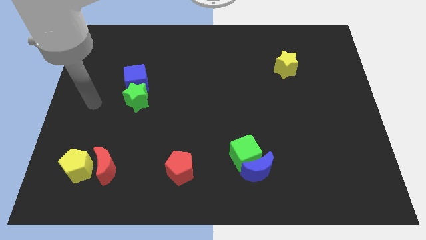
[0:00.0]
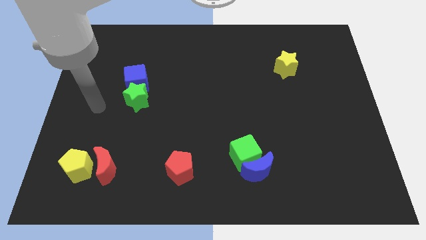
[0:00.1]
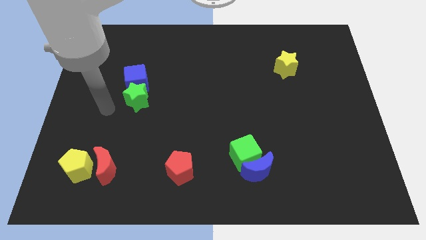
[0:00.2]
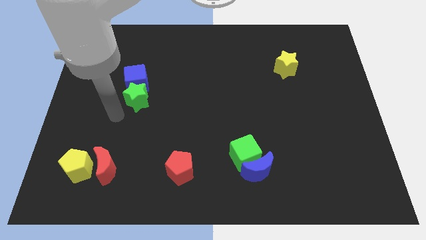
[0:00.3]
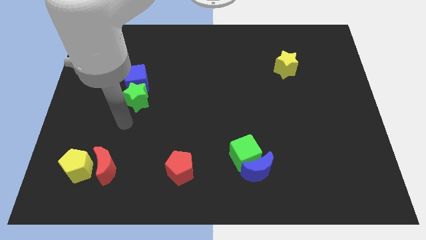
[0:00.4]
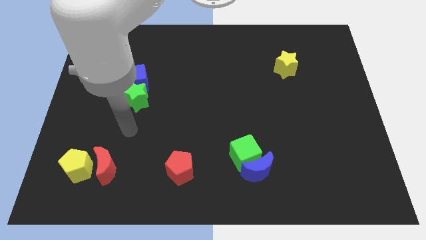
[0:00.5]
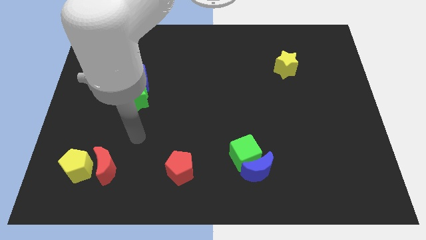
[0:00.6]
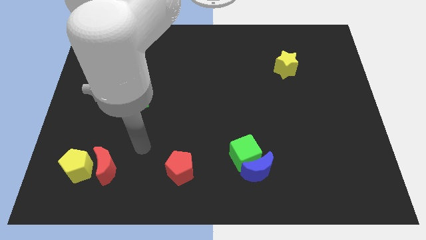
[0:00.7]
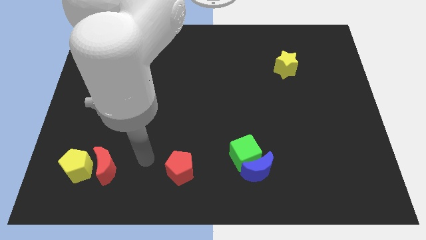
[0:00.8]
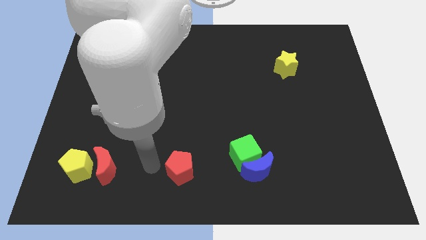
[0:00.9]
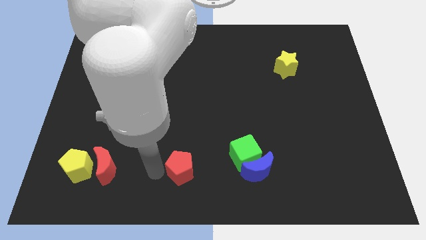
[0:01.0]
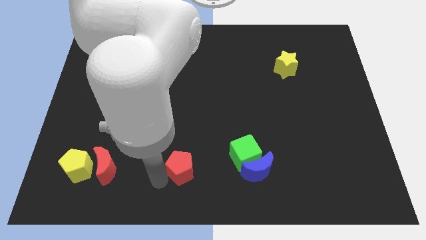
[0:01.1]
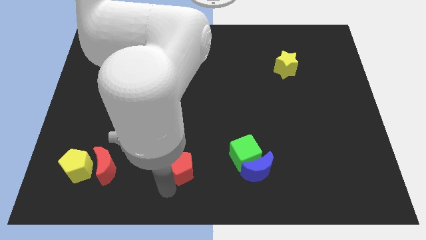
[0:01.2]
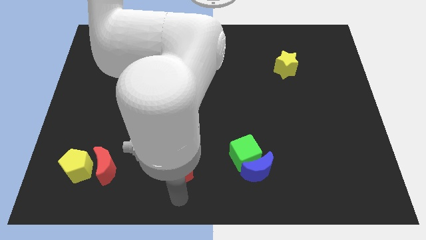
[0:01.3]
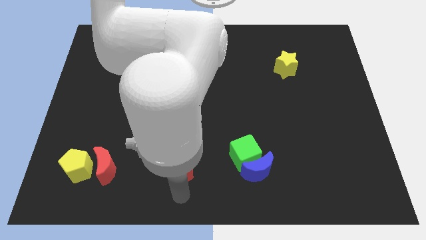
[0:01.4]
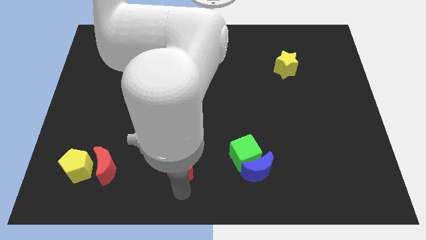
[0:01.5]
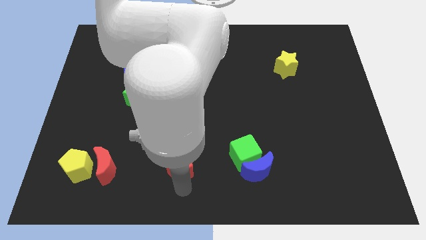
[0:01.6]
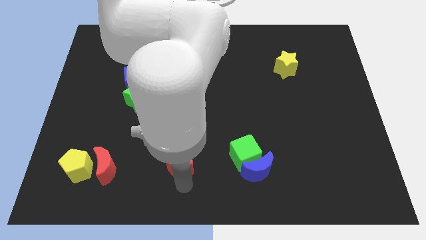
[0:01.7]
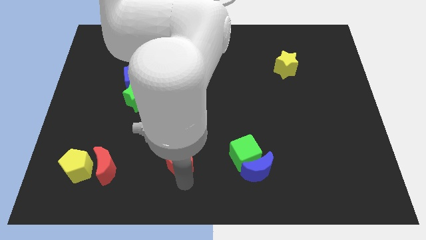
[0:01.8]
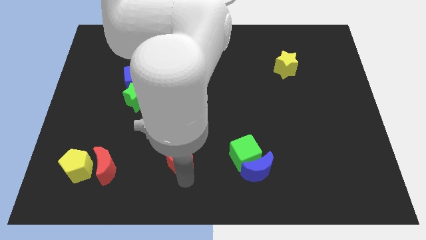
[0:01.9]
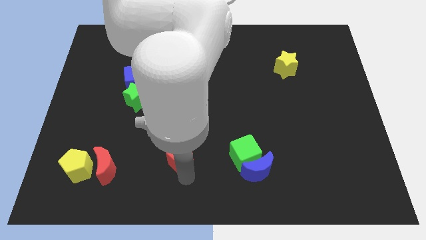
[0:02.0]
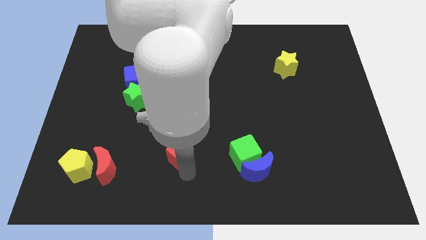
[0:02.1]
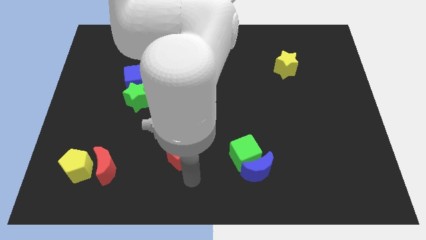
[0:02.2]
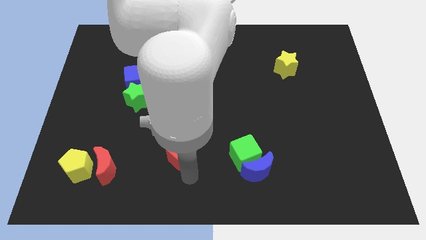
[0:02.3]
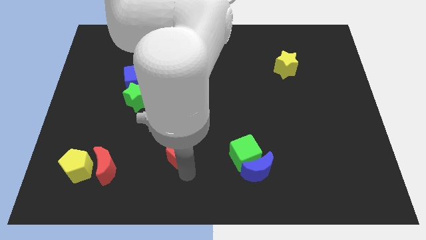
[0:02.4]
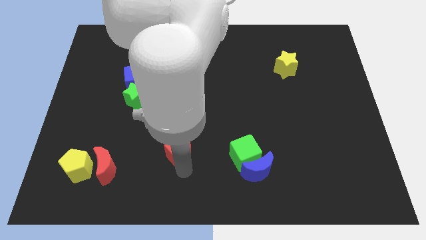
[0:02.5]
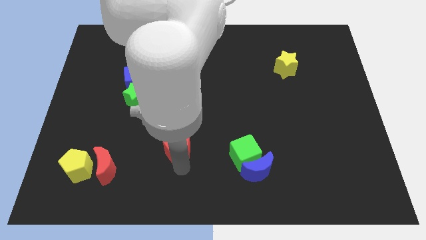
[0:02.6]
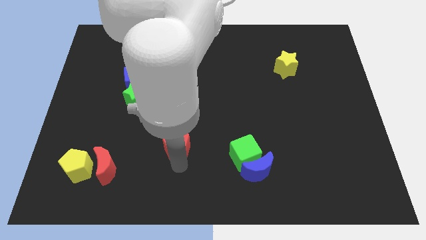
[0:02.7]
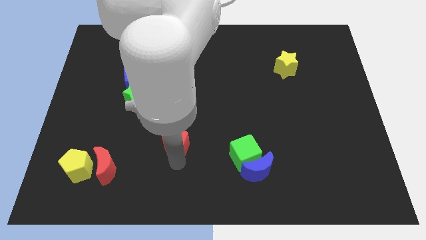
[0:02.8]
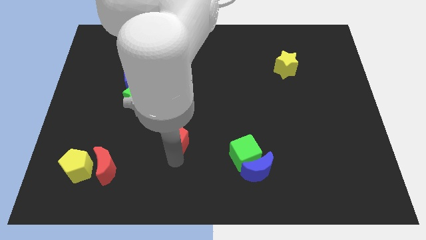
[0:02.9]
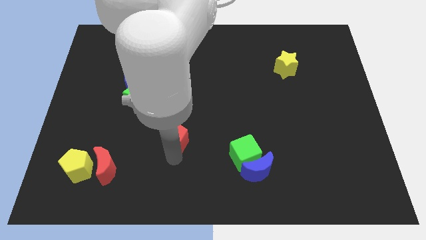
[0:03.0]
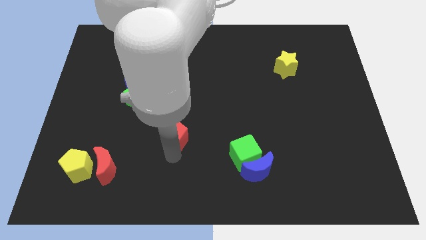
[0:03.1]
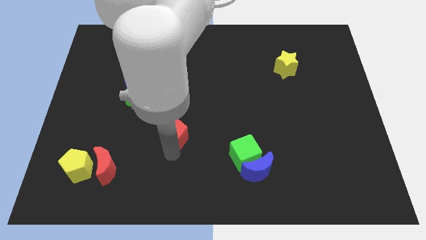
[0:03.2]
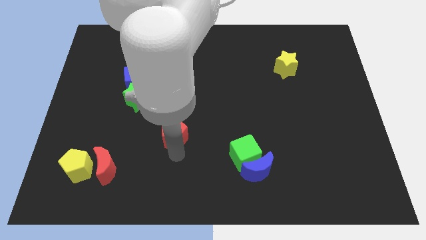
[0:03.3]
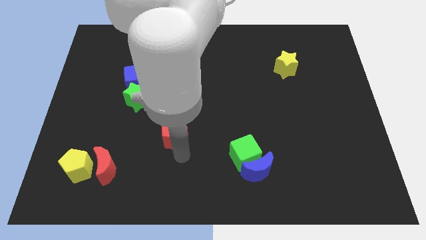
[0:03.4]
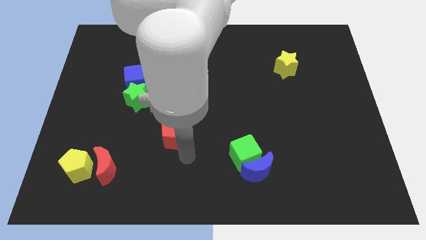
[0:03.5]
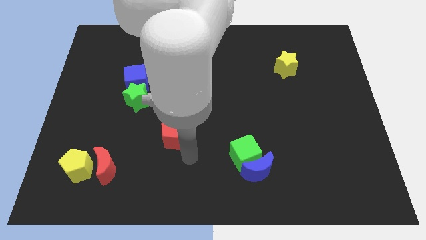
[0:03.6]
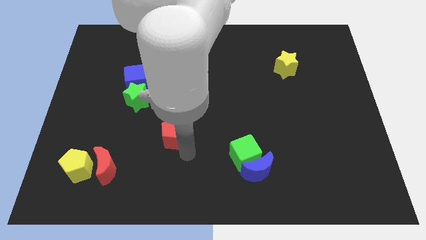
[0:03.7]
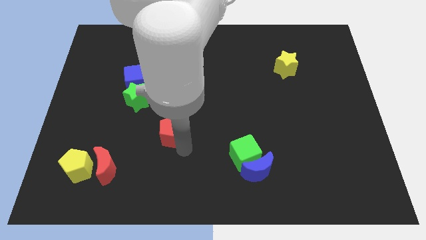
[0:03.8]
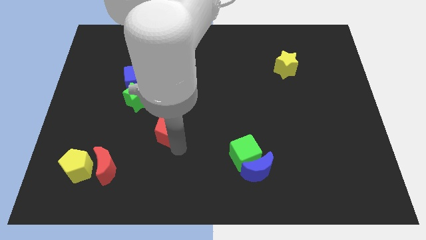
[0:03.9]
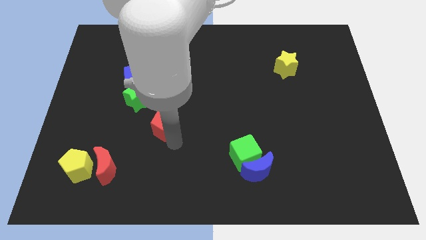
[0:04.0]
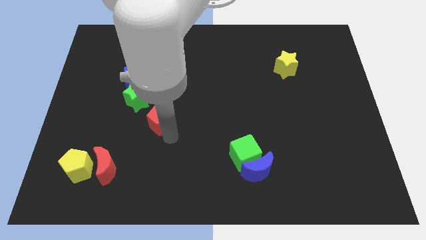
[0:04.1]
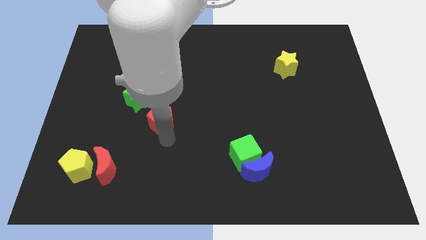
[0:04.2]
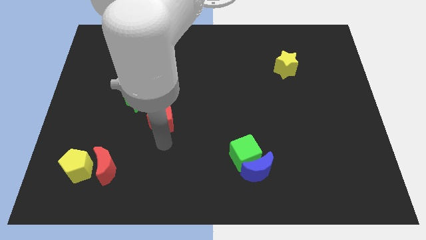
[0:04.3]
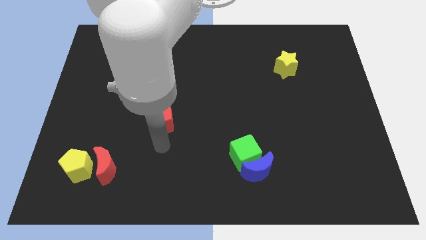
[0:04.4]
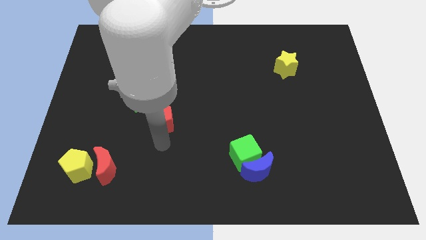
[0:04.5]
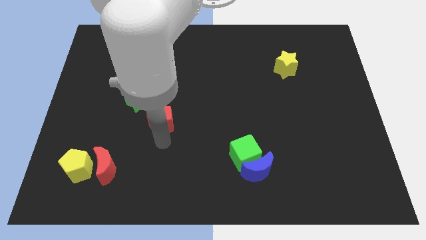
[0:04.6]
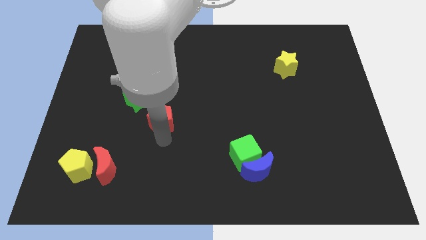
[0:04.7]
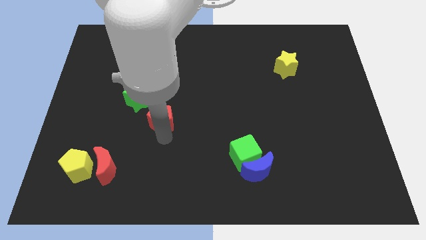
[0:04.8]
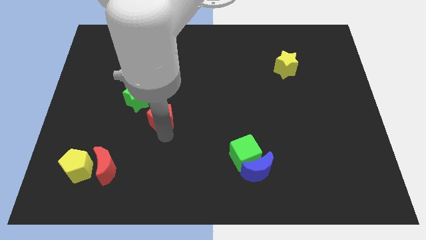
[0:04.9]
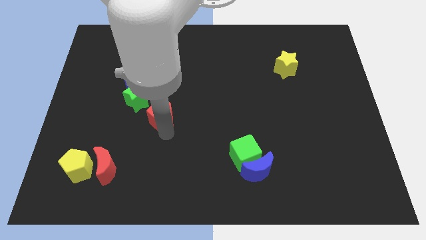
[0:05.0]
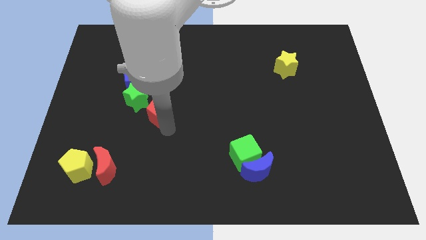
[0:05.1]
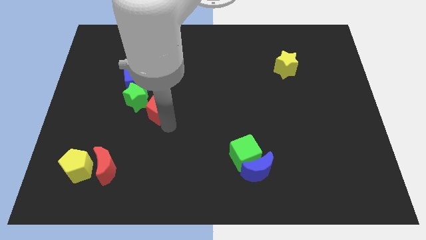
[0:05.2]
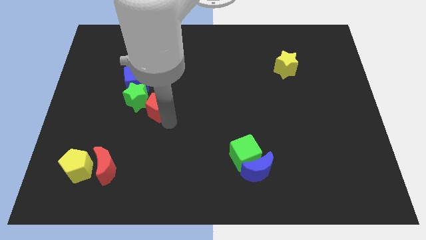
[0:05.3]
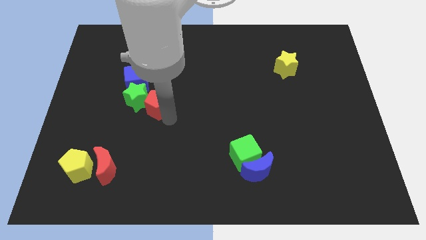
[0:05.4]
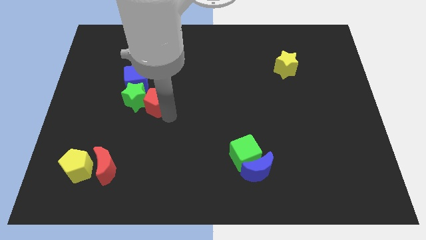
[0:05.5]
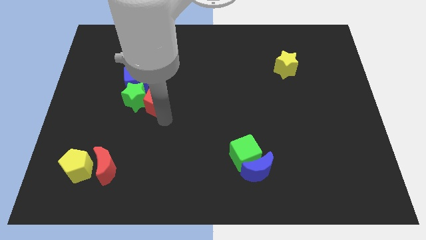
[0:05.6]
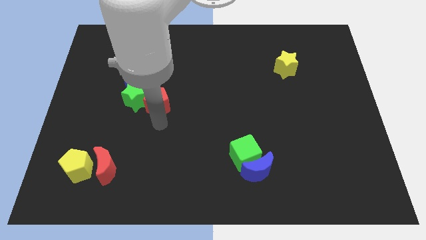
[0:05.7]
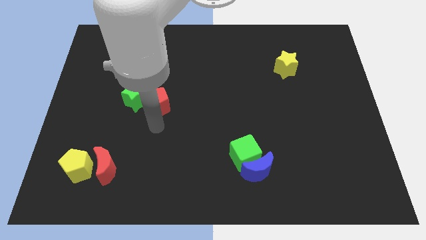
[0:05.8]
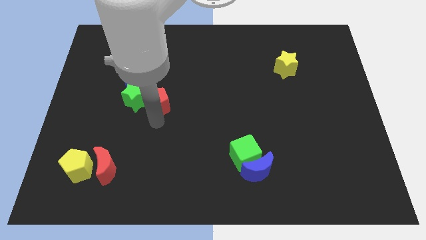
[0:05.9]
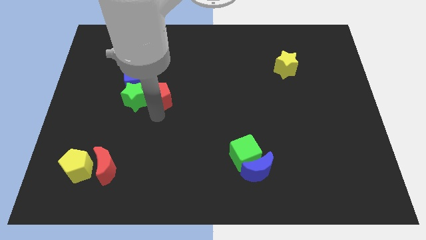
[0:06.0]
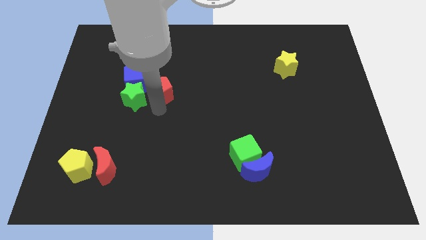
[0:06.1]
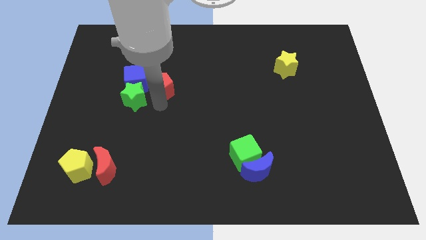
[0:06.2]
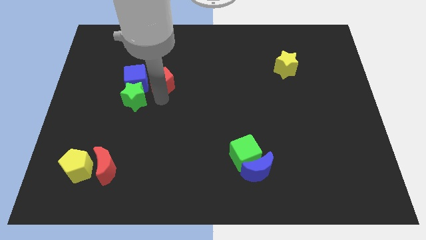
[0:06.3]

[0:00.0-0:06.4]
push the red pentagon to the top right side of the blue cube

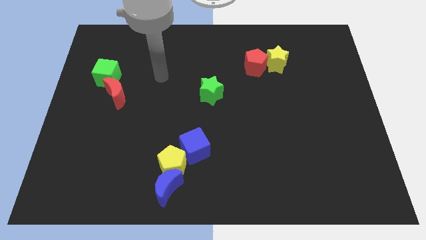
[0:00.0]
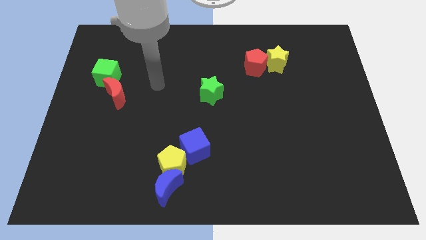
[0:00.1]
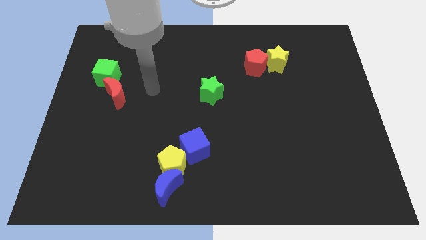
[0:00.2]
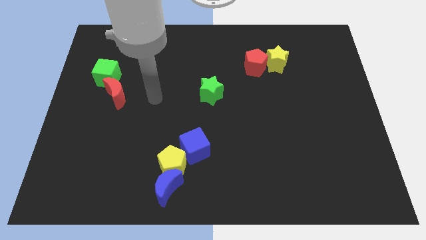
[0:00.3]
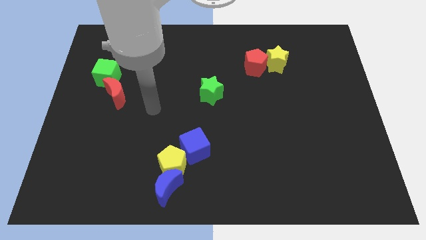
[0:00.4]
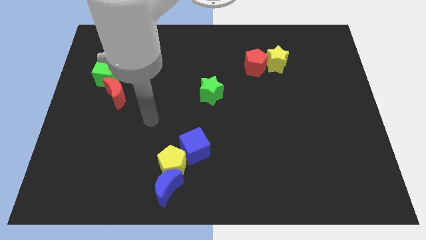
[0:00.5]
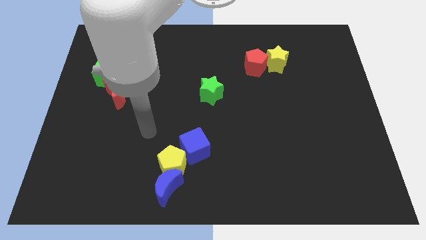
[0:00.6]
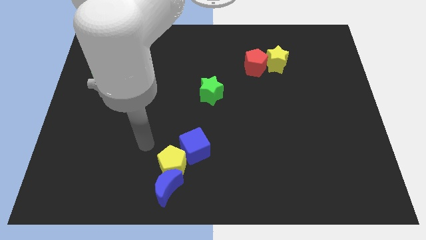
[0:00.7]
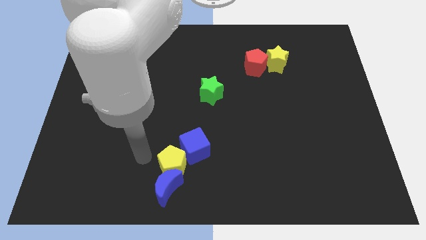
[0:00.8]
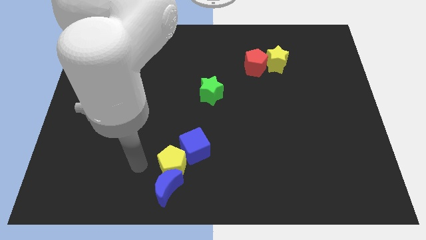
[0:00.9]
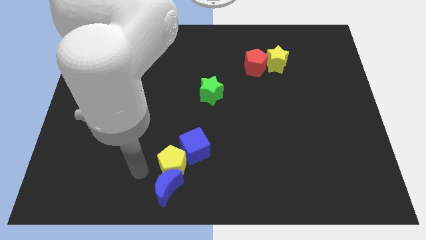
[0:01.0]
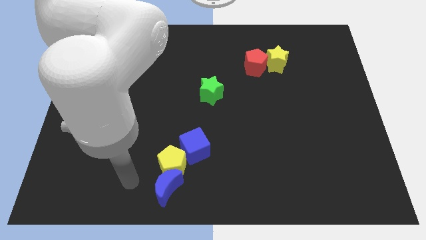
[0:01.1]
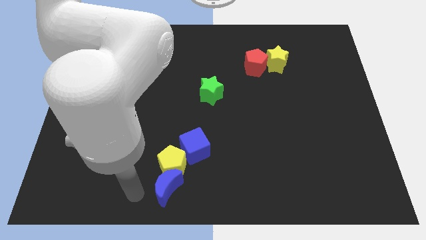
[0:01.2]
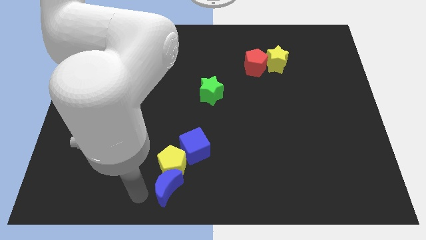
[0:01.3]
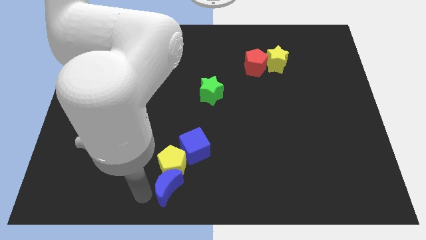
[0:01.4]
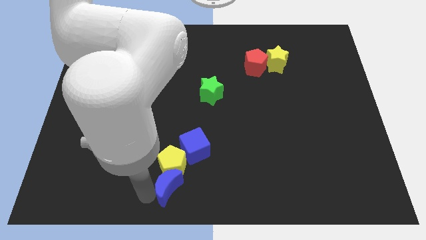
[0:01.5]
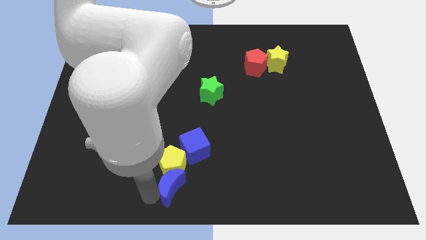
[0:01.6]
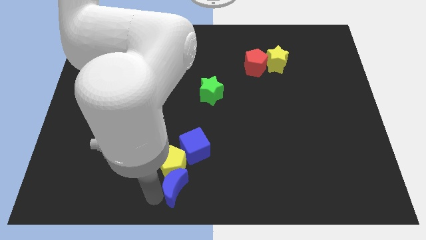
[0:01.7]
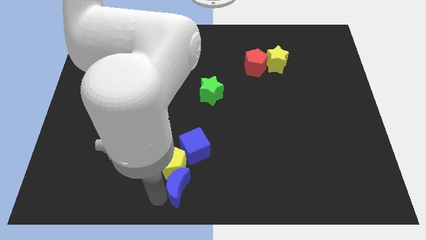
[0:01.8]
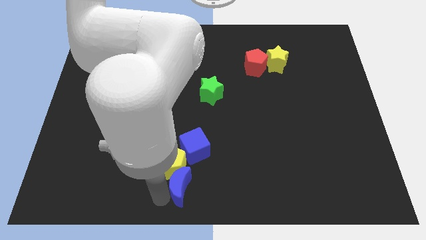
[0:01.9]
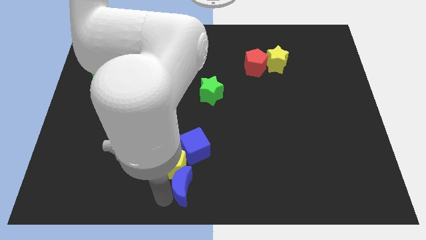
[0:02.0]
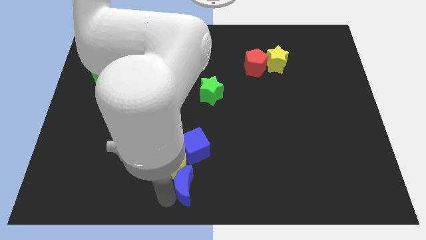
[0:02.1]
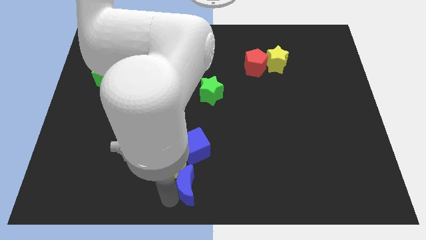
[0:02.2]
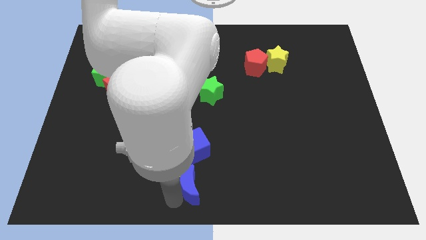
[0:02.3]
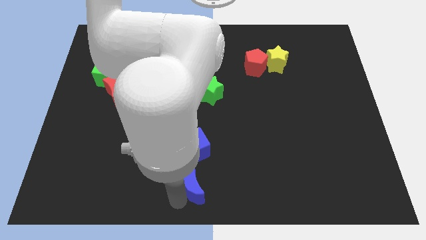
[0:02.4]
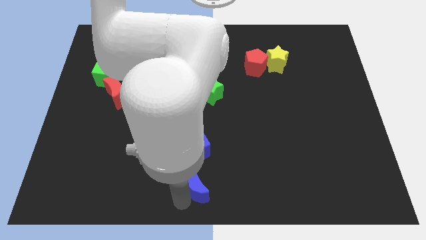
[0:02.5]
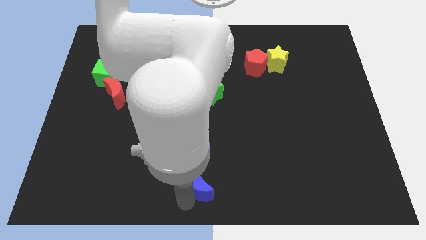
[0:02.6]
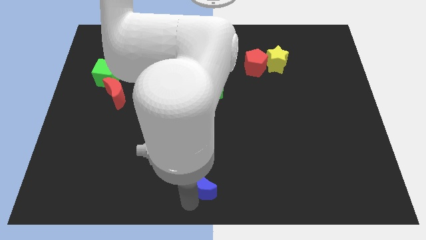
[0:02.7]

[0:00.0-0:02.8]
push the blue moon to the right of the yellow pentagon
